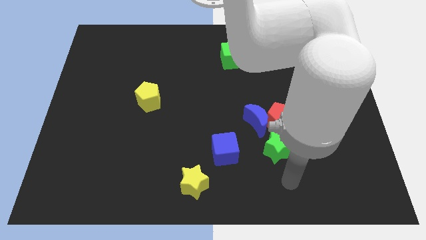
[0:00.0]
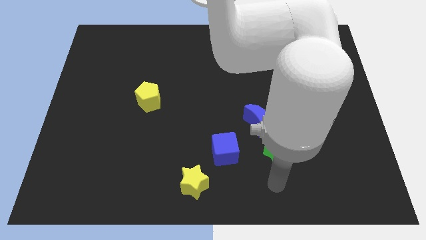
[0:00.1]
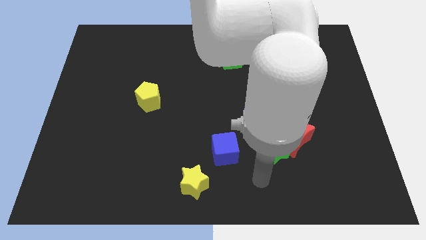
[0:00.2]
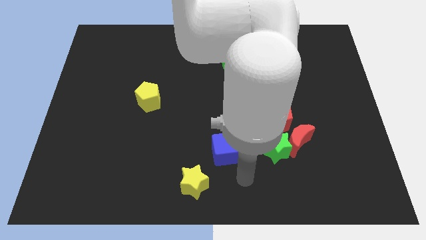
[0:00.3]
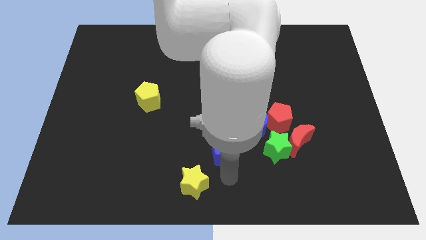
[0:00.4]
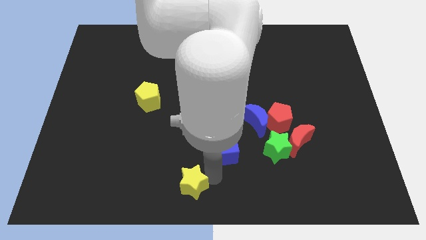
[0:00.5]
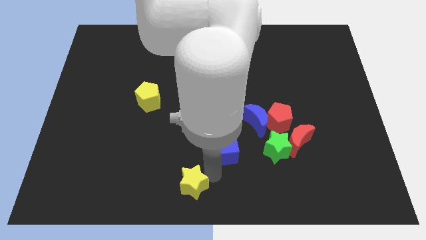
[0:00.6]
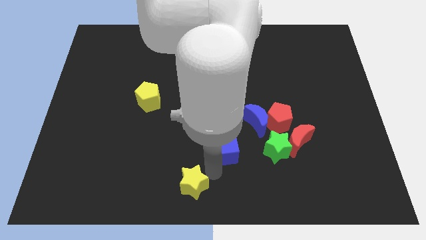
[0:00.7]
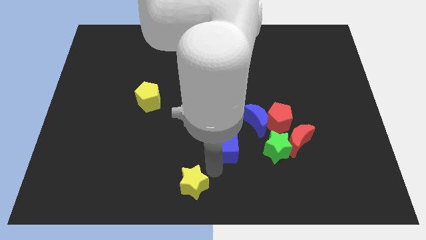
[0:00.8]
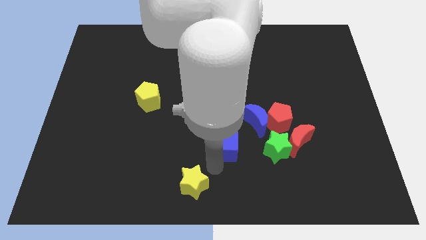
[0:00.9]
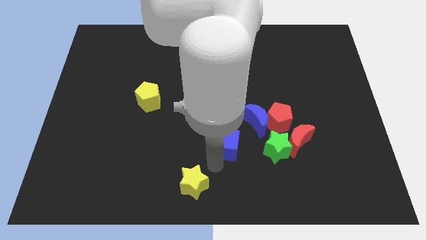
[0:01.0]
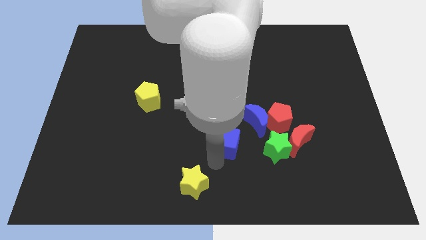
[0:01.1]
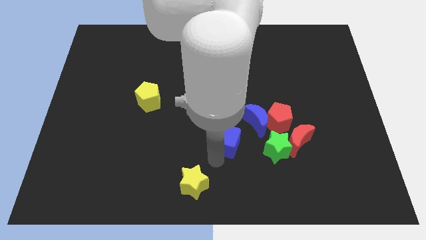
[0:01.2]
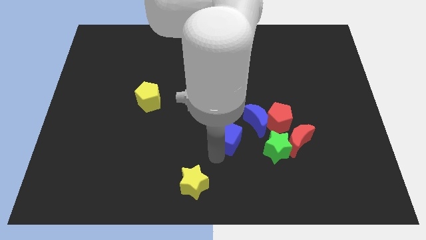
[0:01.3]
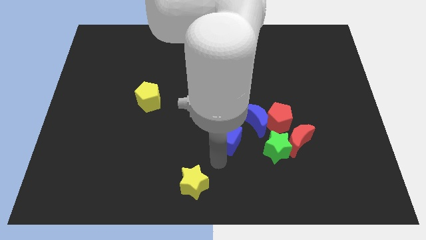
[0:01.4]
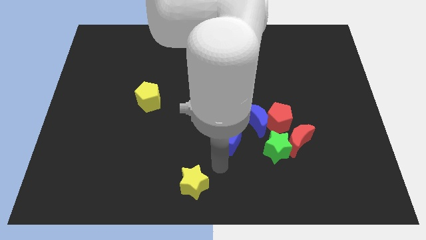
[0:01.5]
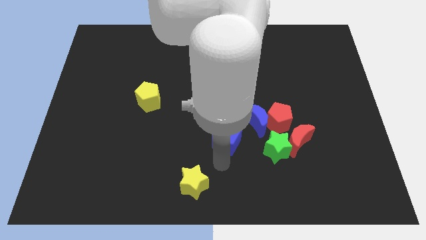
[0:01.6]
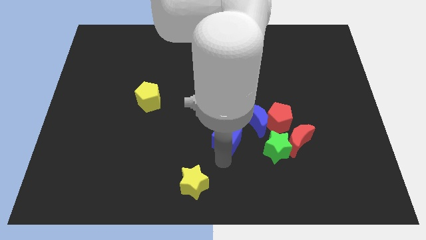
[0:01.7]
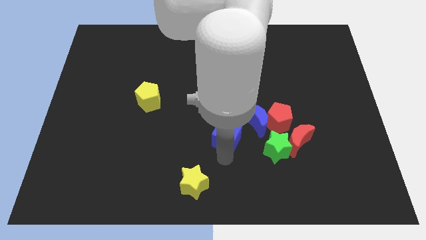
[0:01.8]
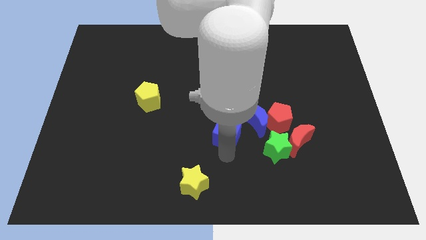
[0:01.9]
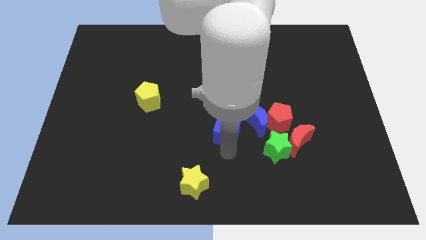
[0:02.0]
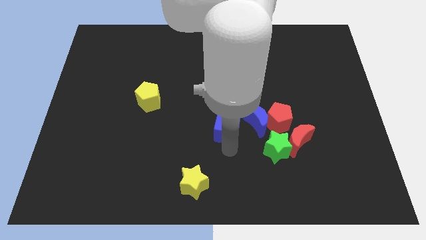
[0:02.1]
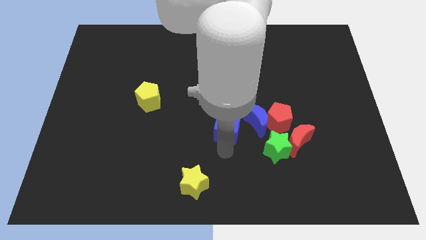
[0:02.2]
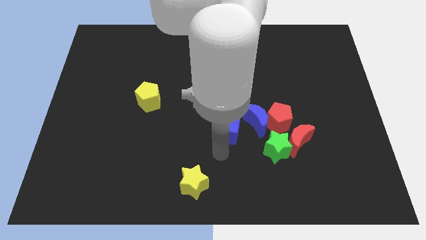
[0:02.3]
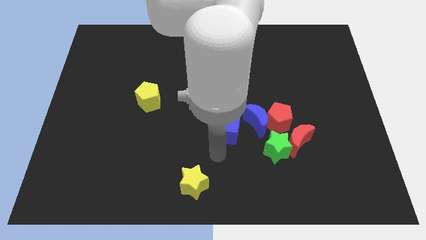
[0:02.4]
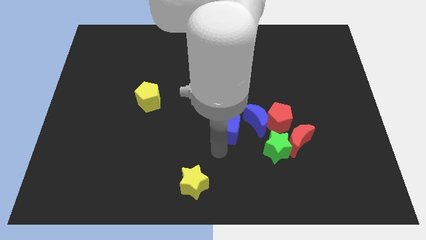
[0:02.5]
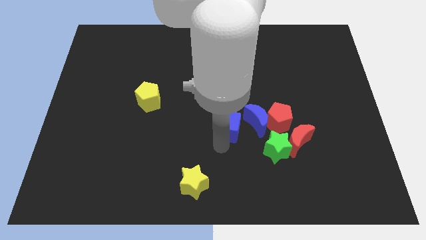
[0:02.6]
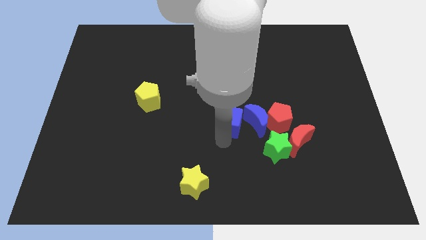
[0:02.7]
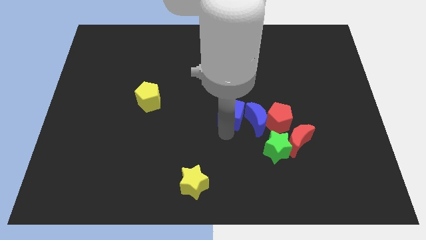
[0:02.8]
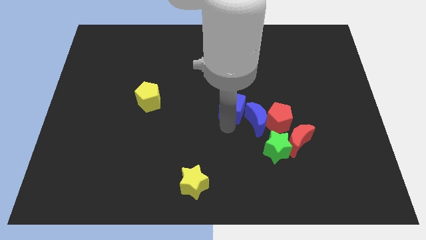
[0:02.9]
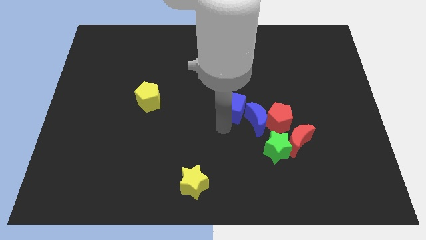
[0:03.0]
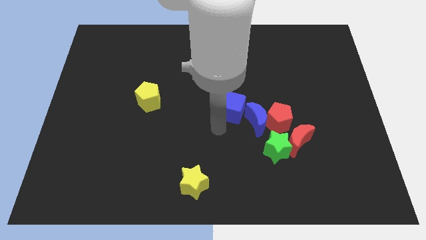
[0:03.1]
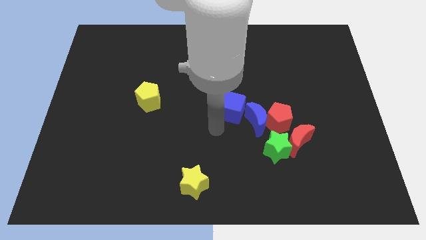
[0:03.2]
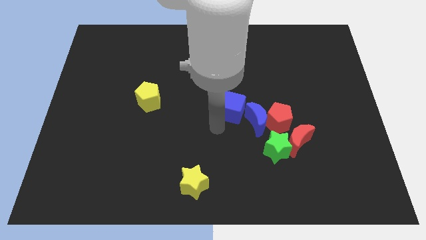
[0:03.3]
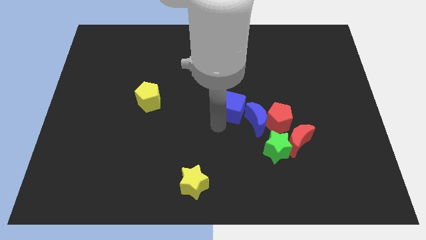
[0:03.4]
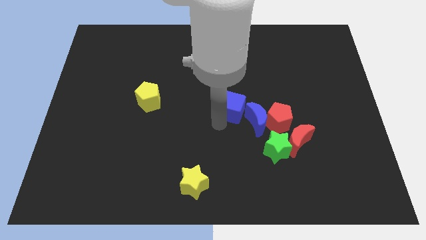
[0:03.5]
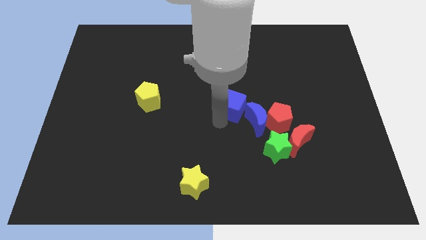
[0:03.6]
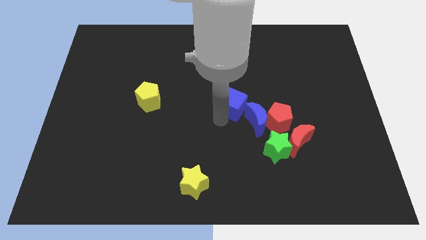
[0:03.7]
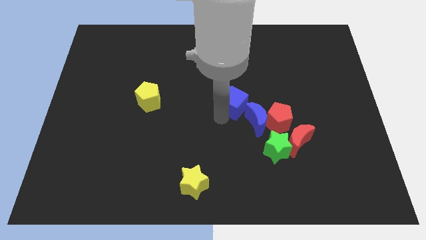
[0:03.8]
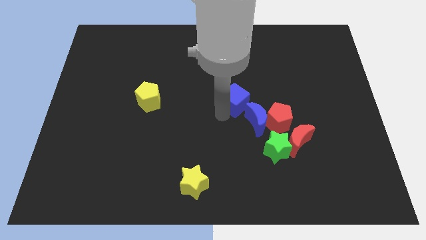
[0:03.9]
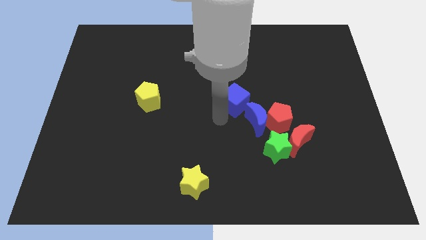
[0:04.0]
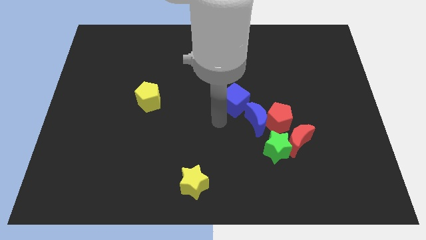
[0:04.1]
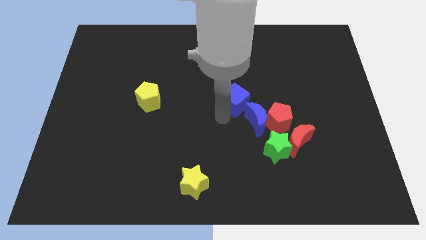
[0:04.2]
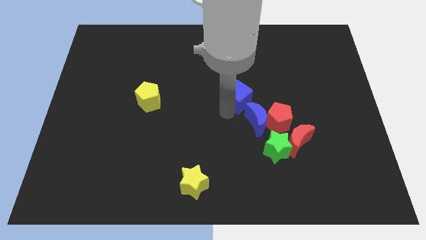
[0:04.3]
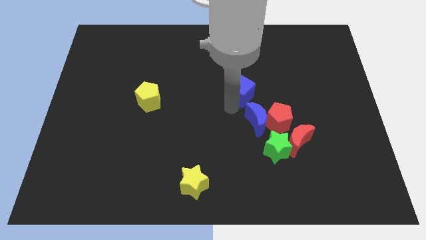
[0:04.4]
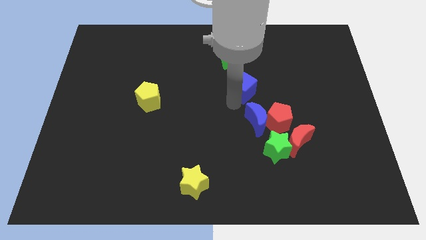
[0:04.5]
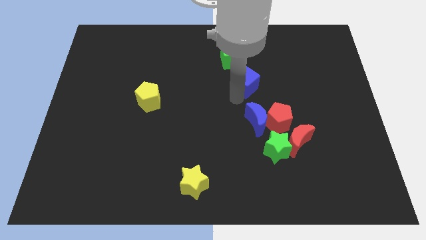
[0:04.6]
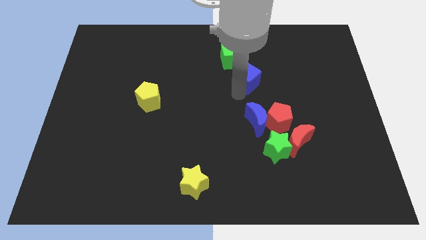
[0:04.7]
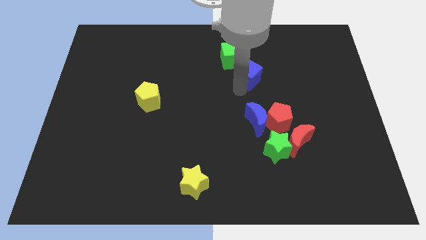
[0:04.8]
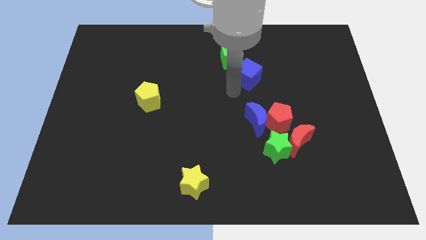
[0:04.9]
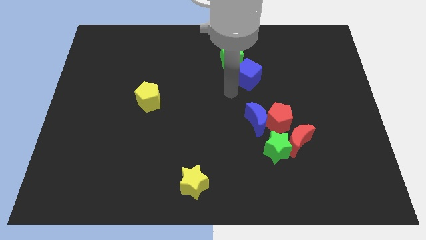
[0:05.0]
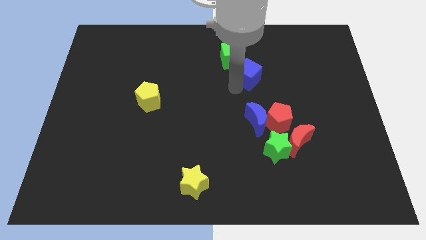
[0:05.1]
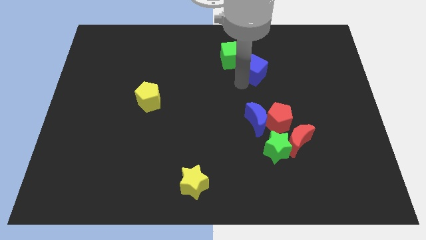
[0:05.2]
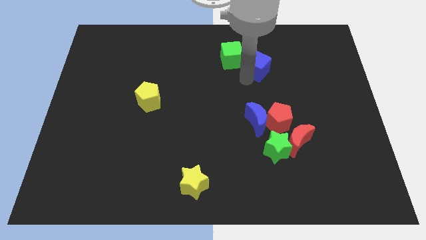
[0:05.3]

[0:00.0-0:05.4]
move the blue cube just right of the green cube
